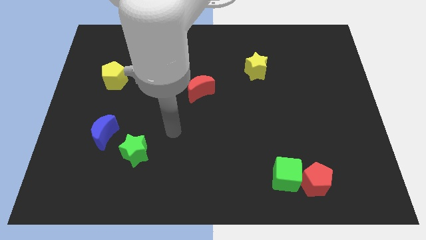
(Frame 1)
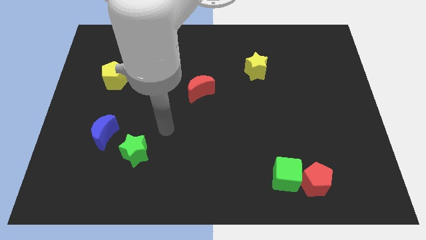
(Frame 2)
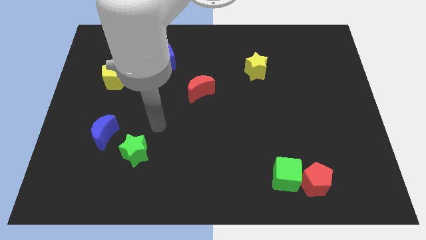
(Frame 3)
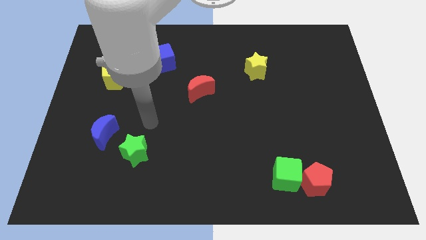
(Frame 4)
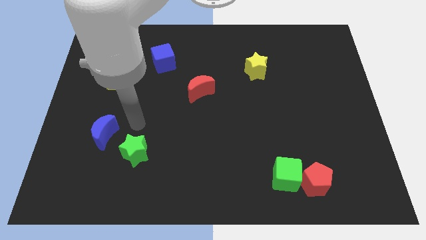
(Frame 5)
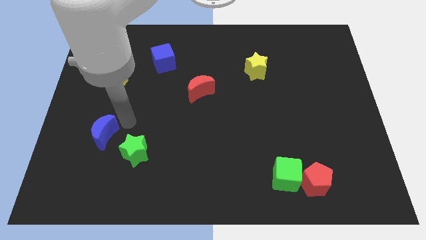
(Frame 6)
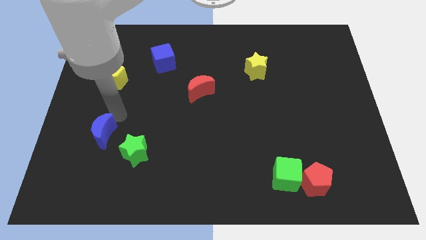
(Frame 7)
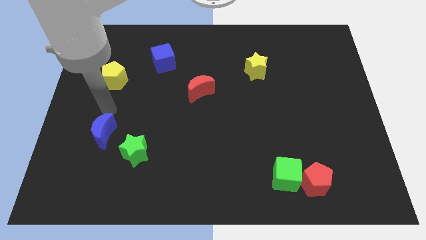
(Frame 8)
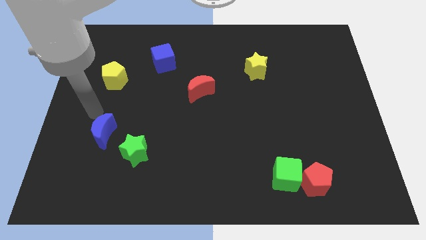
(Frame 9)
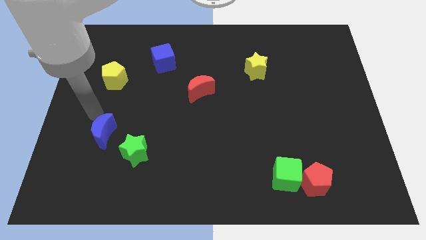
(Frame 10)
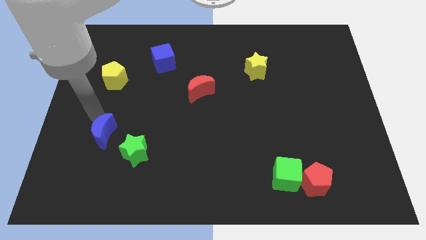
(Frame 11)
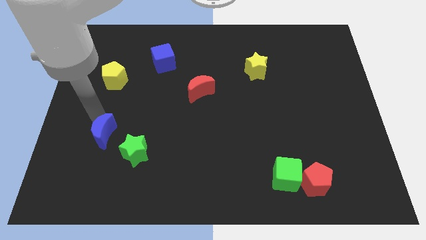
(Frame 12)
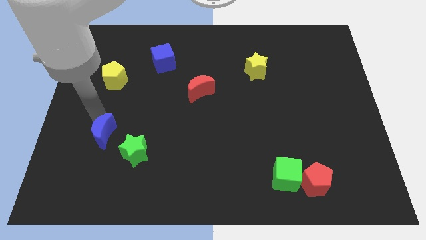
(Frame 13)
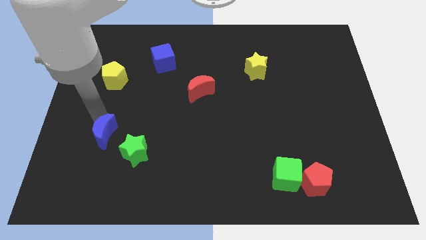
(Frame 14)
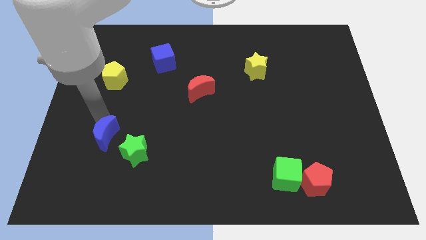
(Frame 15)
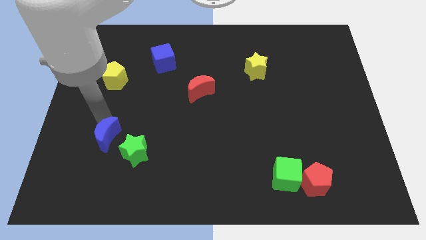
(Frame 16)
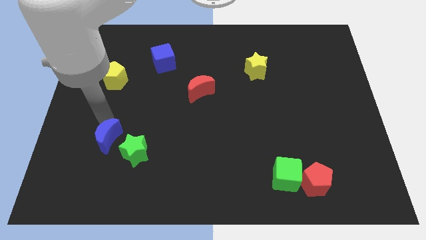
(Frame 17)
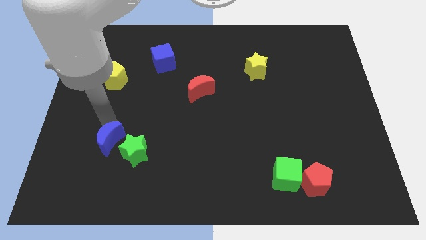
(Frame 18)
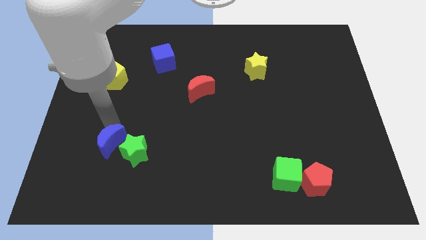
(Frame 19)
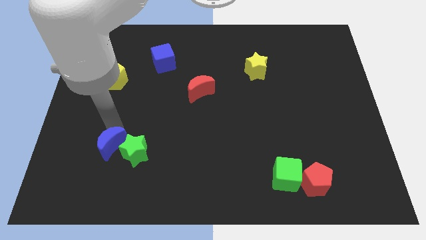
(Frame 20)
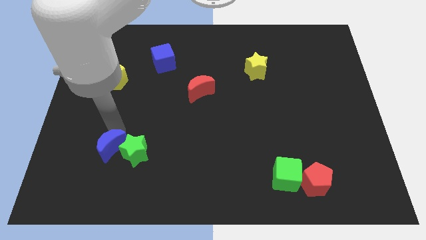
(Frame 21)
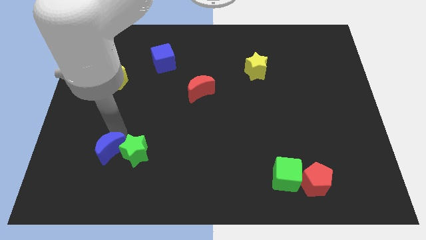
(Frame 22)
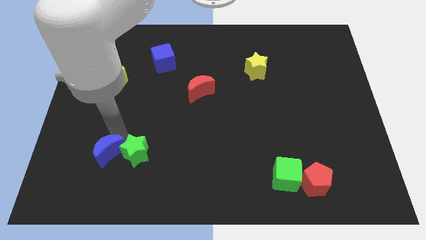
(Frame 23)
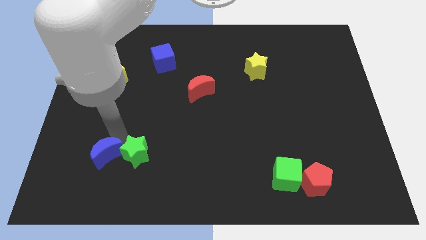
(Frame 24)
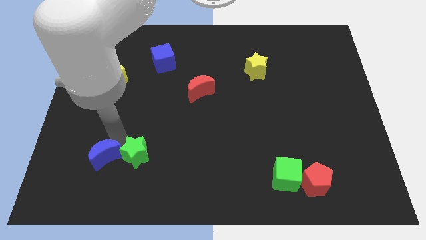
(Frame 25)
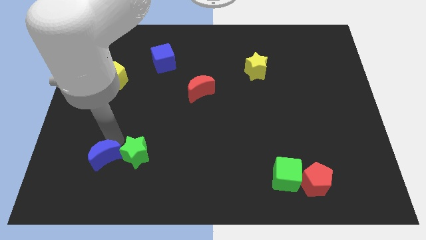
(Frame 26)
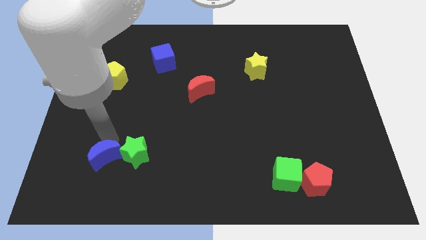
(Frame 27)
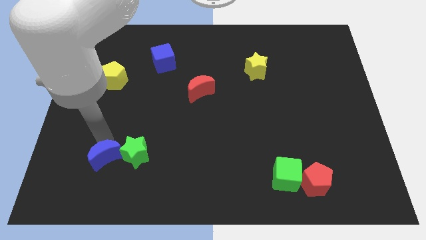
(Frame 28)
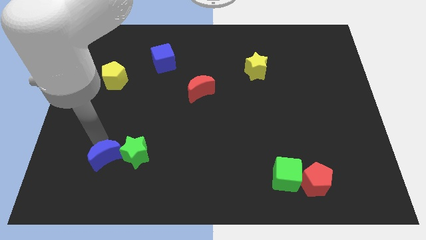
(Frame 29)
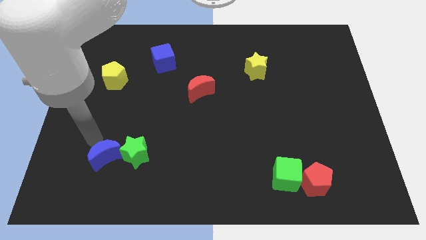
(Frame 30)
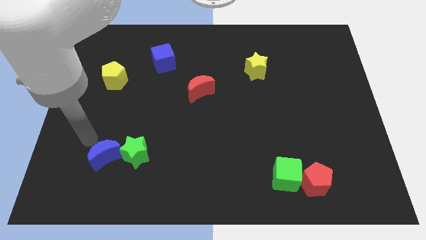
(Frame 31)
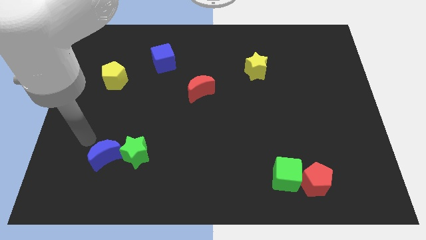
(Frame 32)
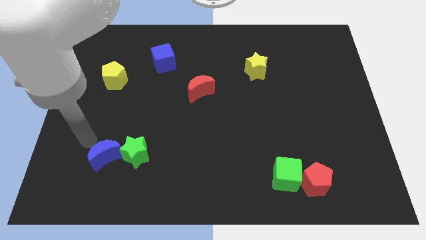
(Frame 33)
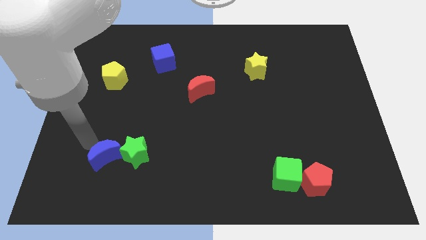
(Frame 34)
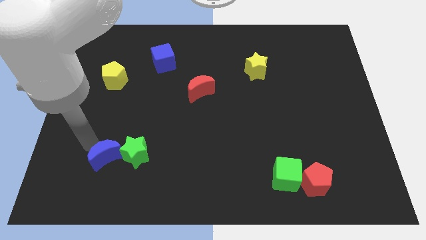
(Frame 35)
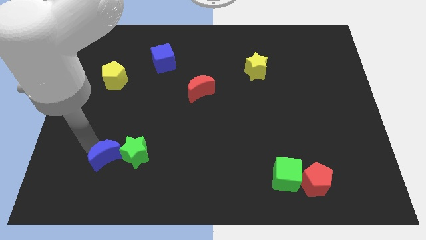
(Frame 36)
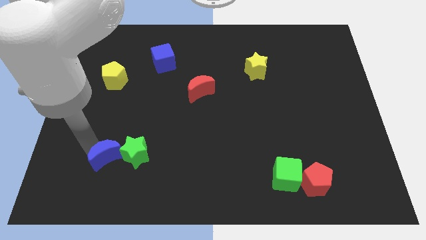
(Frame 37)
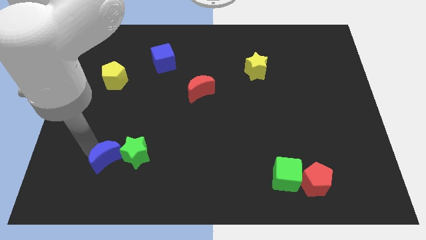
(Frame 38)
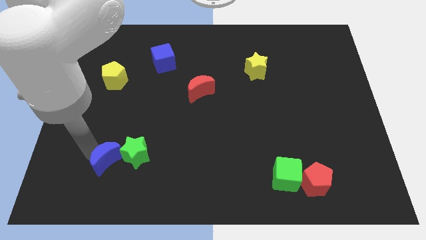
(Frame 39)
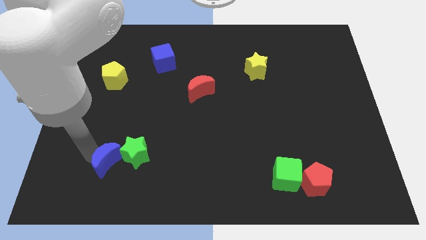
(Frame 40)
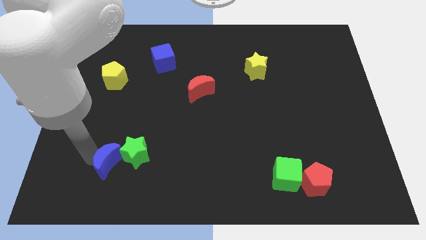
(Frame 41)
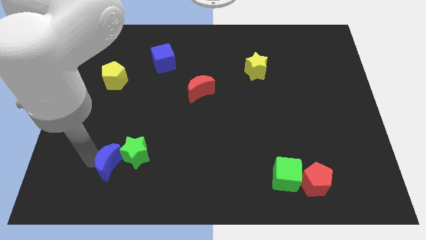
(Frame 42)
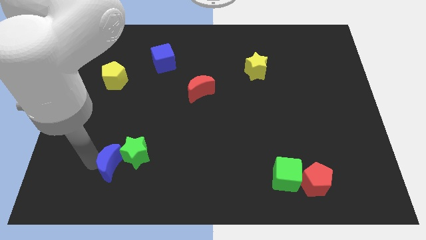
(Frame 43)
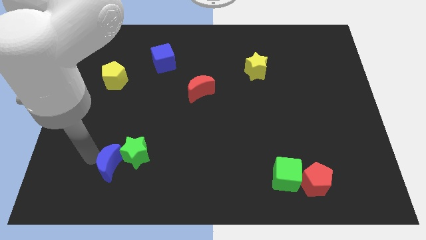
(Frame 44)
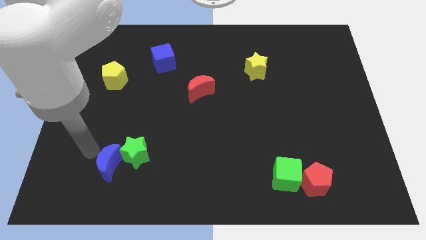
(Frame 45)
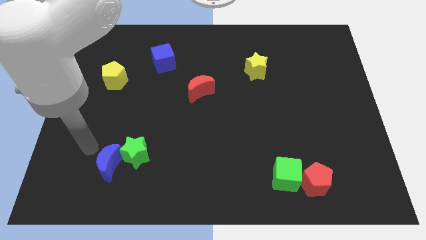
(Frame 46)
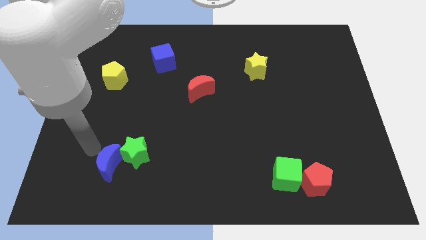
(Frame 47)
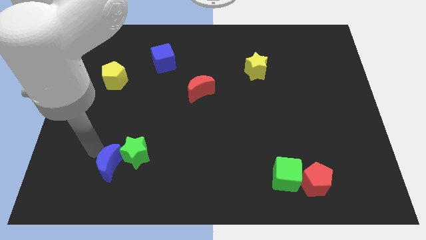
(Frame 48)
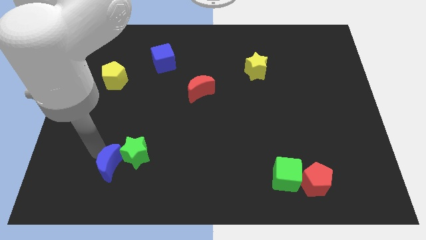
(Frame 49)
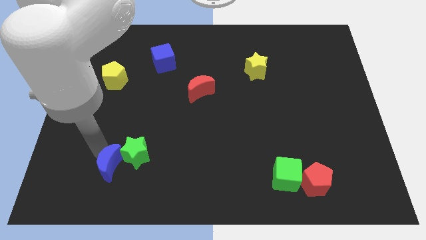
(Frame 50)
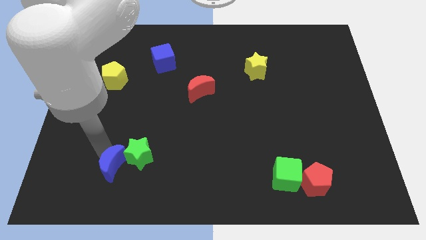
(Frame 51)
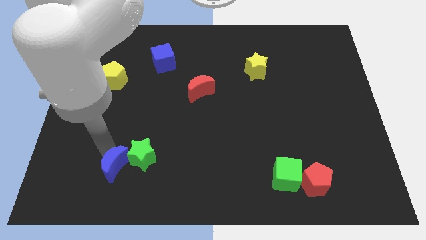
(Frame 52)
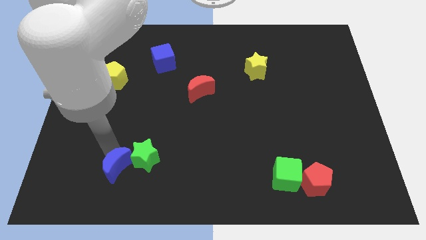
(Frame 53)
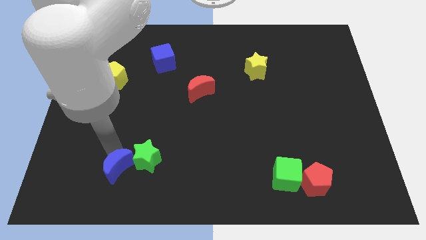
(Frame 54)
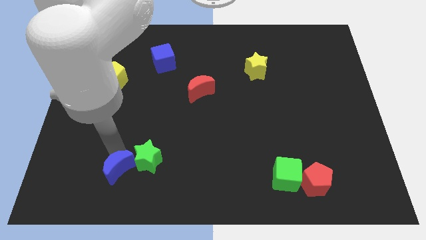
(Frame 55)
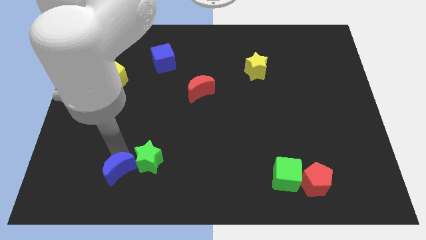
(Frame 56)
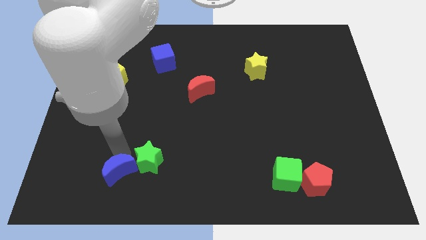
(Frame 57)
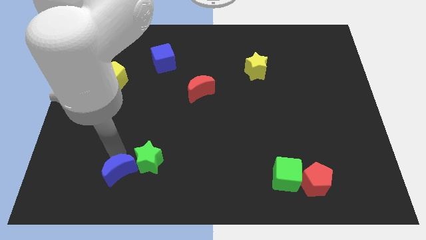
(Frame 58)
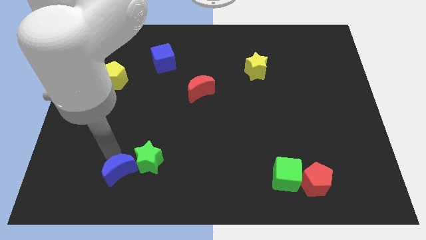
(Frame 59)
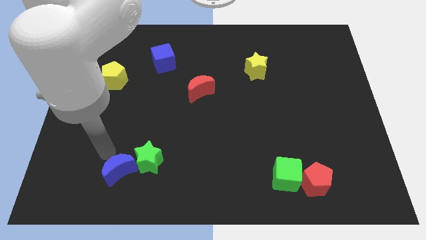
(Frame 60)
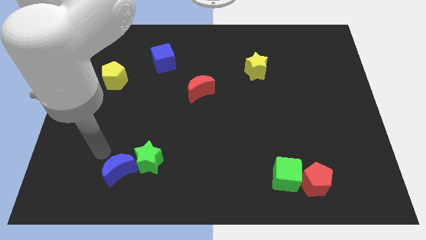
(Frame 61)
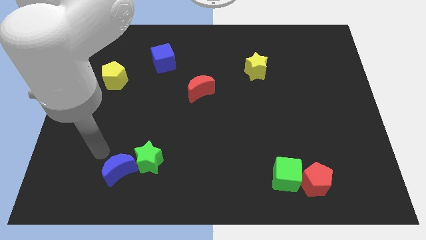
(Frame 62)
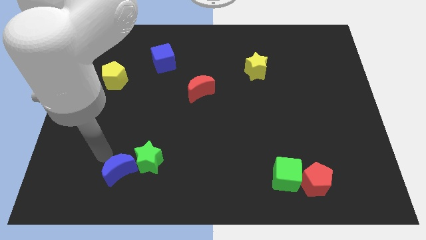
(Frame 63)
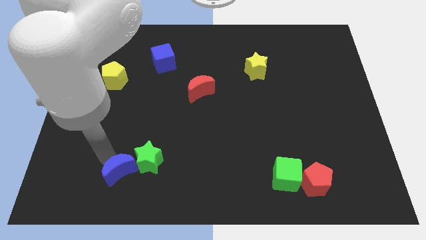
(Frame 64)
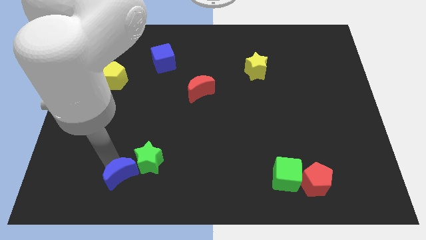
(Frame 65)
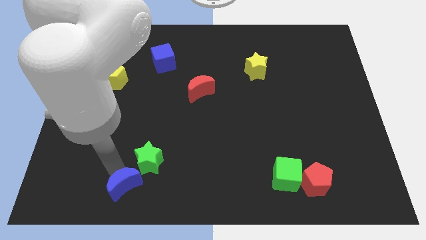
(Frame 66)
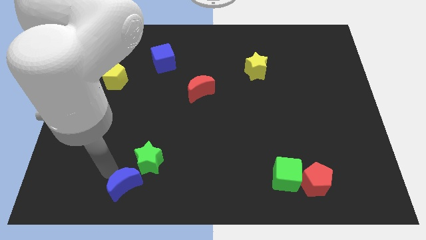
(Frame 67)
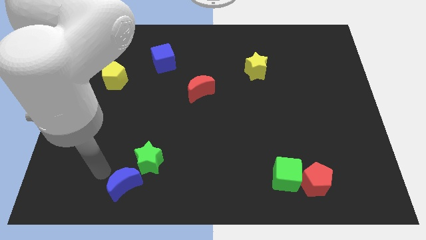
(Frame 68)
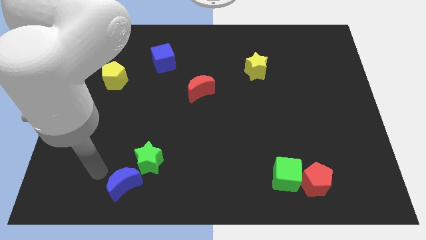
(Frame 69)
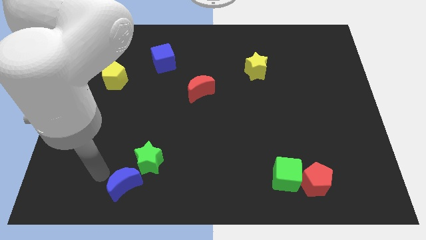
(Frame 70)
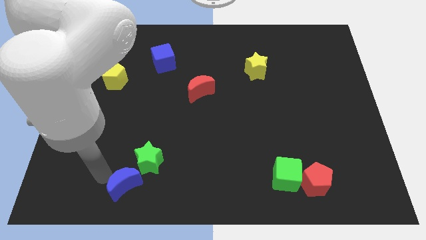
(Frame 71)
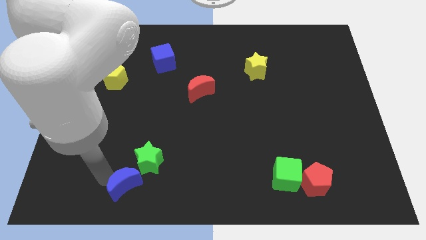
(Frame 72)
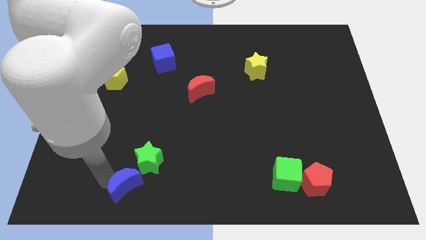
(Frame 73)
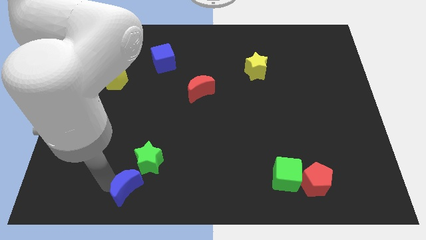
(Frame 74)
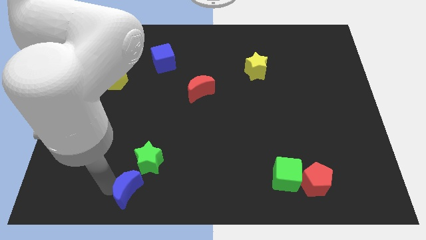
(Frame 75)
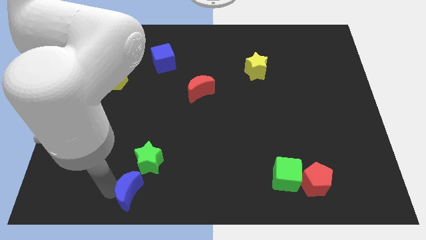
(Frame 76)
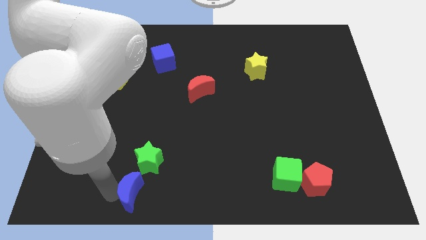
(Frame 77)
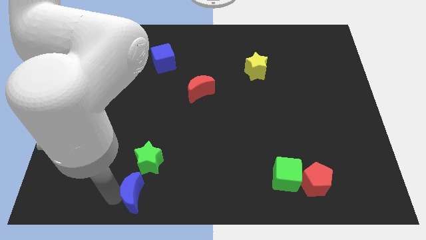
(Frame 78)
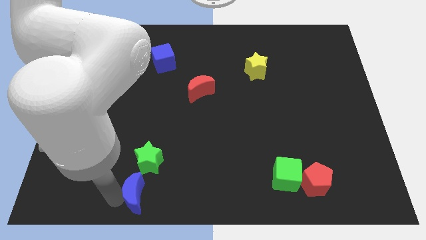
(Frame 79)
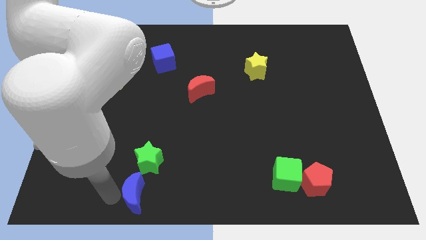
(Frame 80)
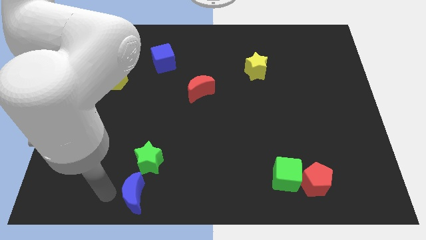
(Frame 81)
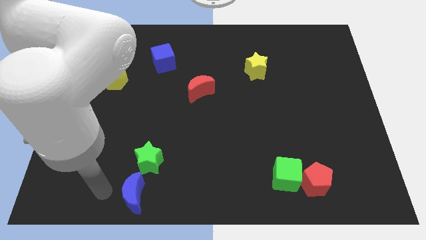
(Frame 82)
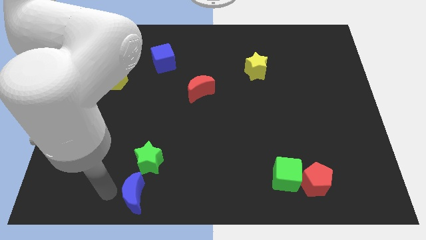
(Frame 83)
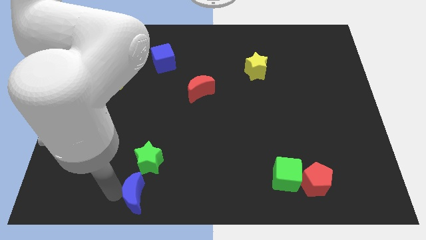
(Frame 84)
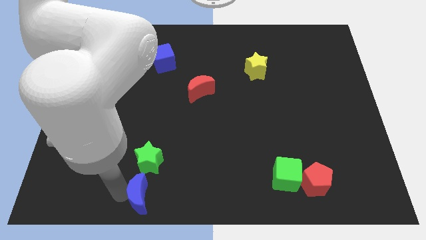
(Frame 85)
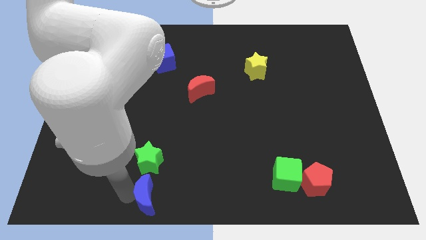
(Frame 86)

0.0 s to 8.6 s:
slide the blue moon to the bottom
